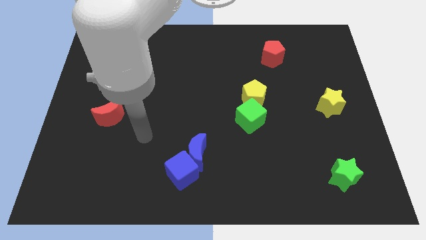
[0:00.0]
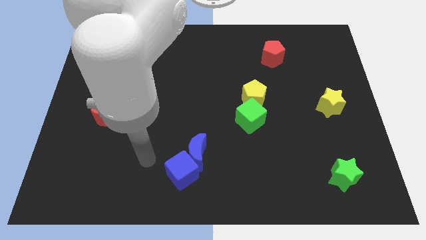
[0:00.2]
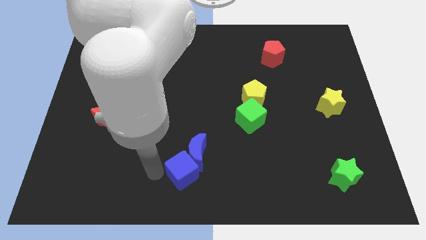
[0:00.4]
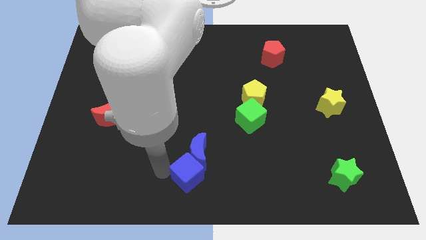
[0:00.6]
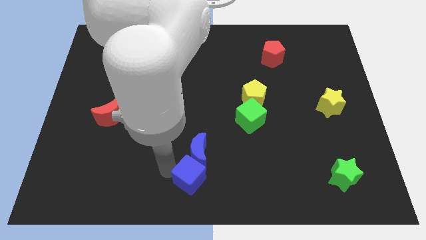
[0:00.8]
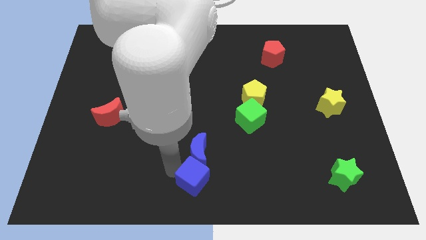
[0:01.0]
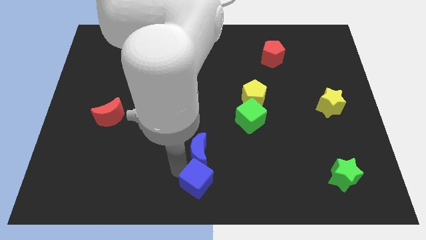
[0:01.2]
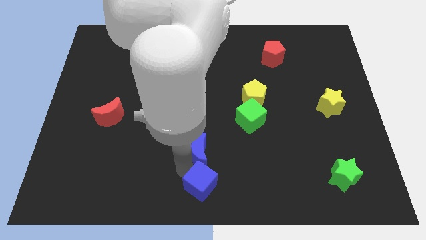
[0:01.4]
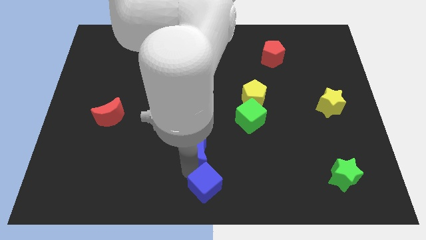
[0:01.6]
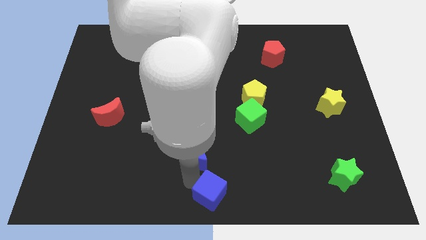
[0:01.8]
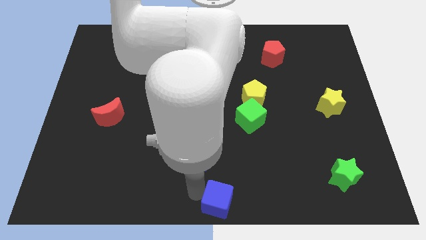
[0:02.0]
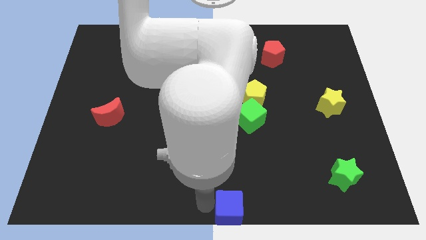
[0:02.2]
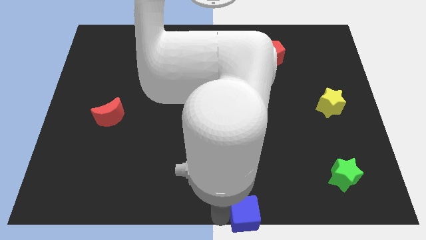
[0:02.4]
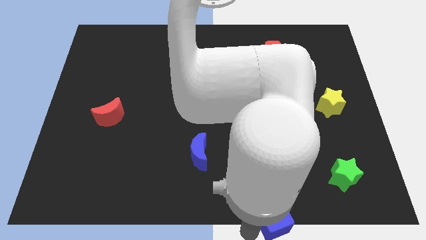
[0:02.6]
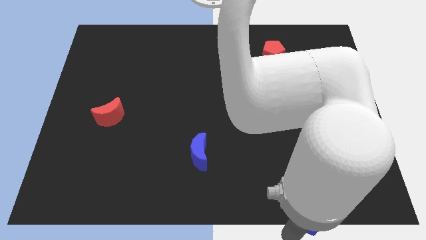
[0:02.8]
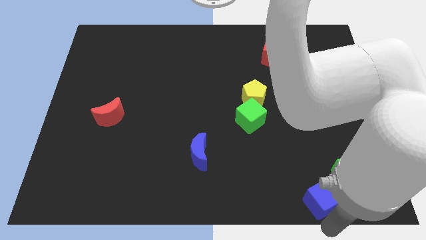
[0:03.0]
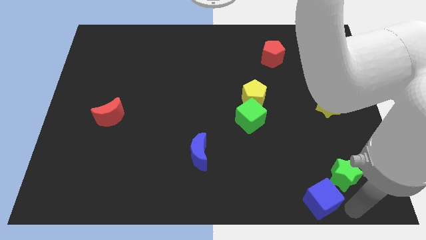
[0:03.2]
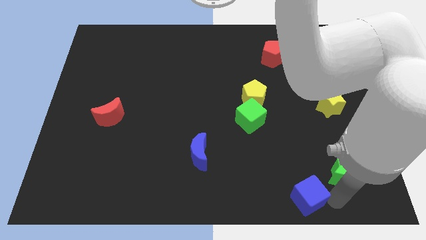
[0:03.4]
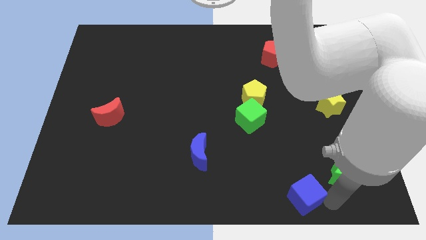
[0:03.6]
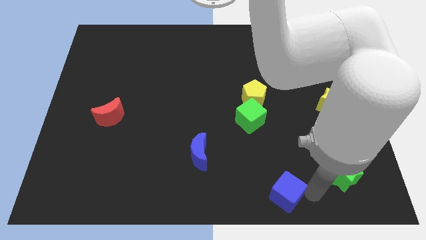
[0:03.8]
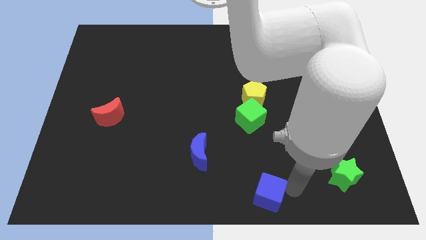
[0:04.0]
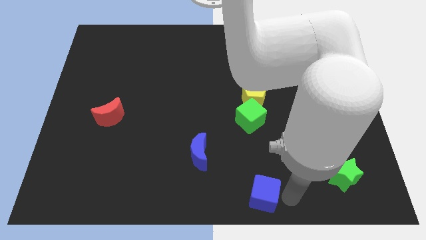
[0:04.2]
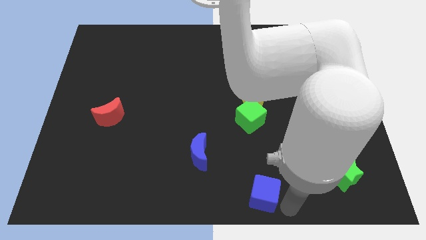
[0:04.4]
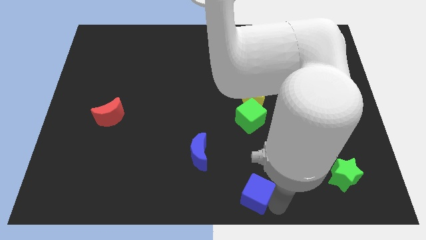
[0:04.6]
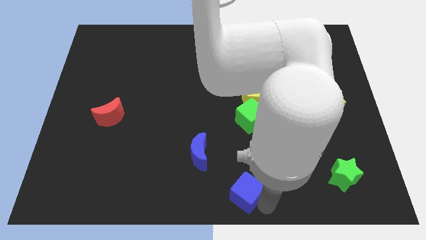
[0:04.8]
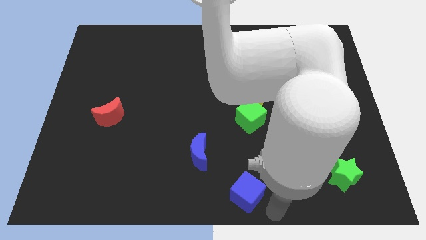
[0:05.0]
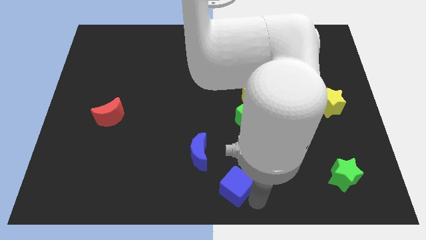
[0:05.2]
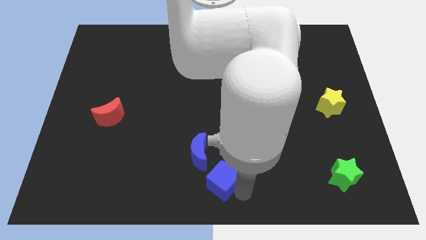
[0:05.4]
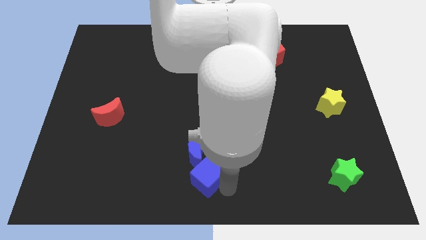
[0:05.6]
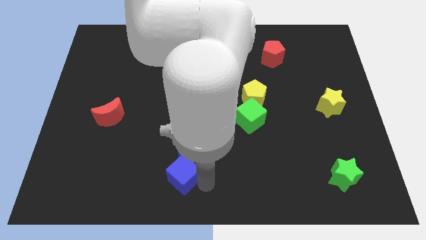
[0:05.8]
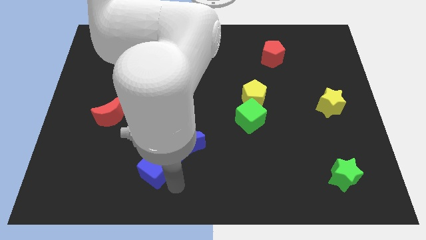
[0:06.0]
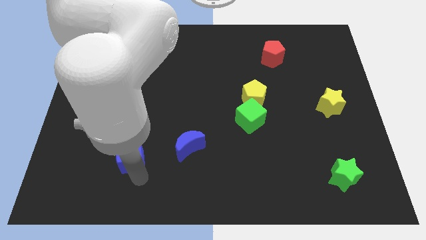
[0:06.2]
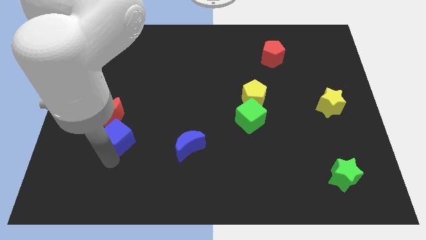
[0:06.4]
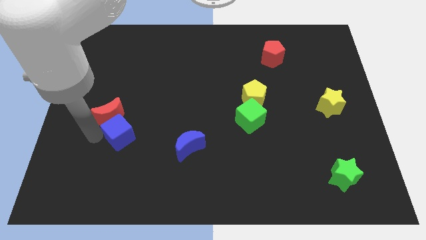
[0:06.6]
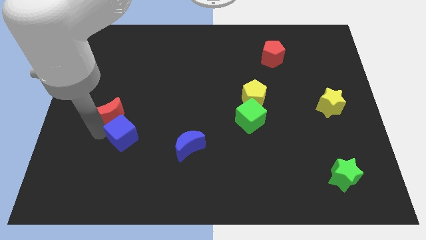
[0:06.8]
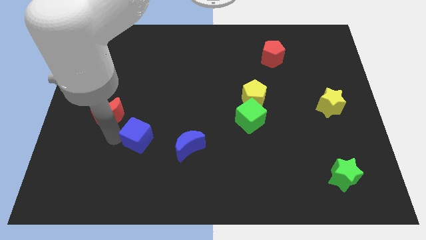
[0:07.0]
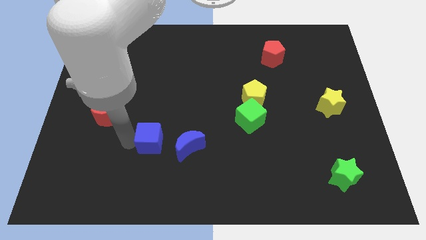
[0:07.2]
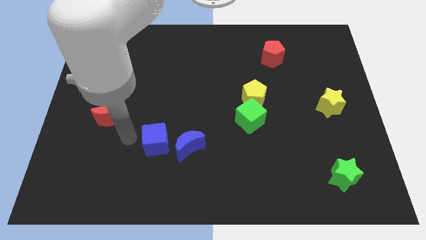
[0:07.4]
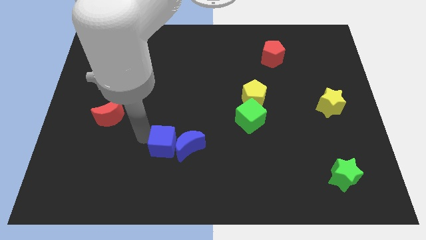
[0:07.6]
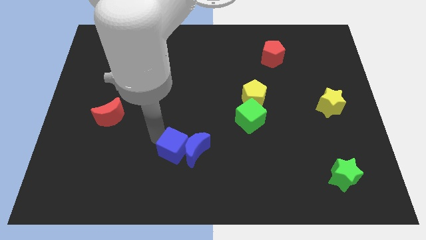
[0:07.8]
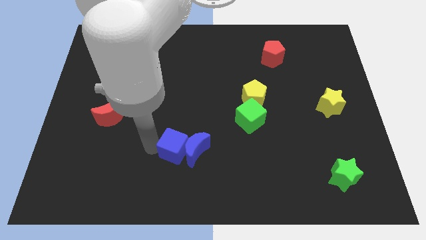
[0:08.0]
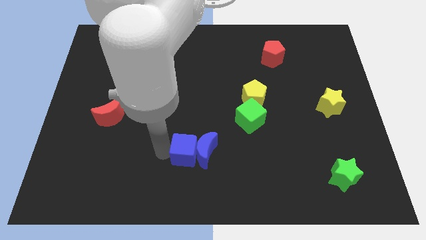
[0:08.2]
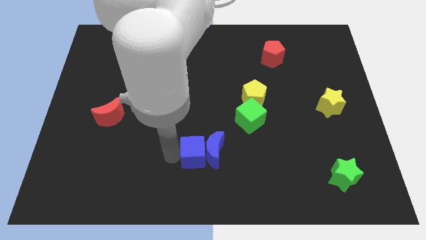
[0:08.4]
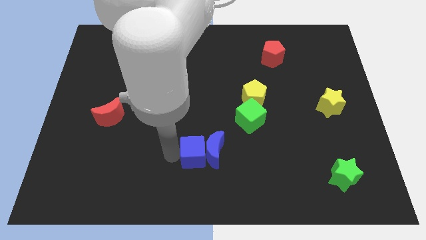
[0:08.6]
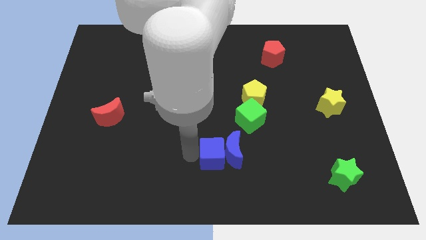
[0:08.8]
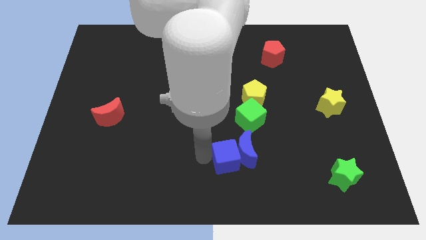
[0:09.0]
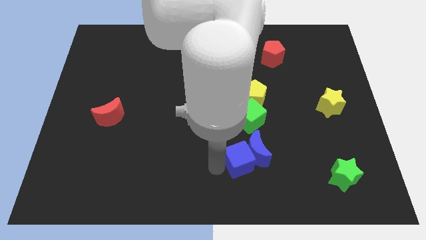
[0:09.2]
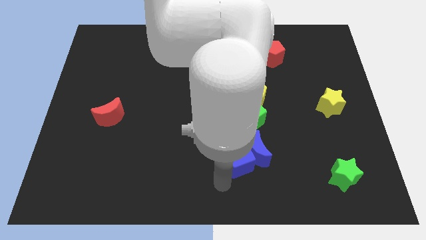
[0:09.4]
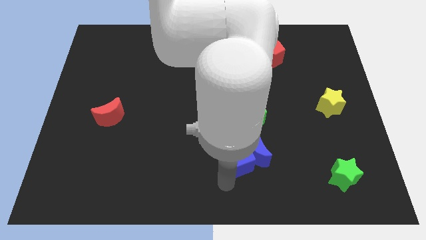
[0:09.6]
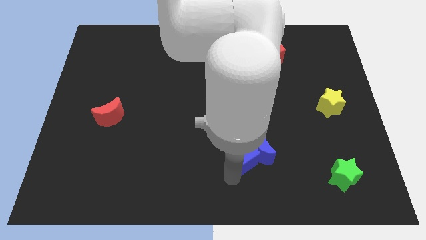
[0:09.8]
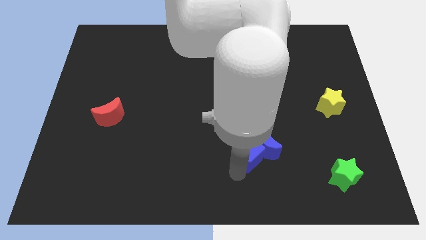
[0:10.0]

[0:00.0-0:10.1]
slide the blue cube below the yellow pentagon

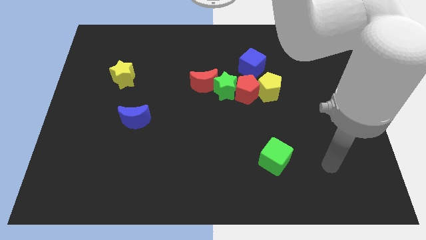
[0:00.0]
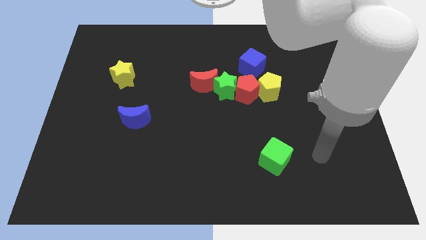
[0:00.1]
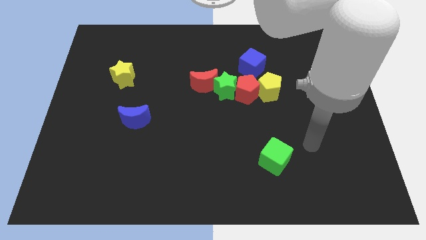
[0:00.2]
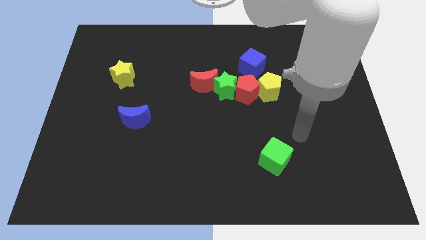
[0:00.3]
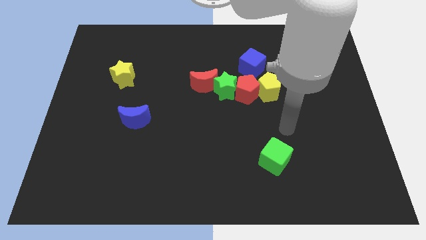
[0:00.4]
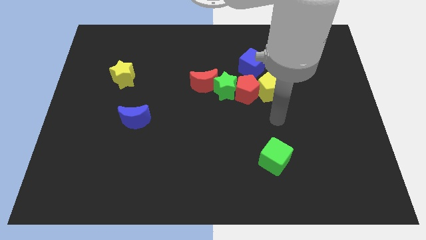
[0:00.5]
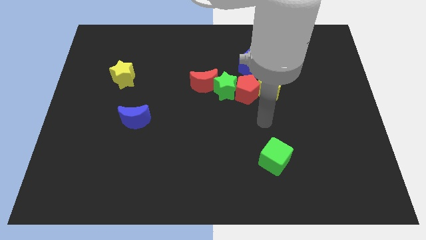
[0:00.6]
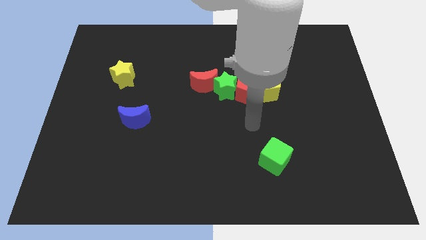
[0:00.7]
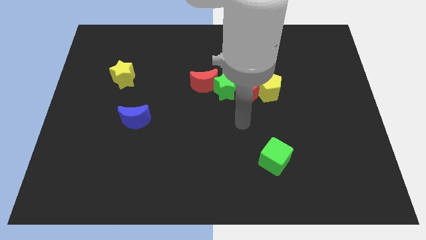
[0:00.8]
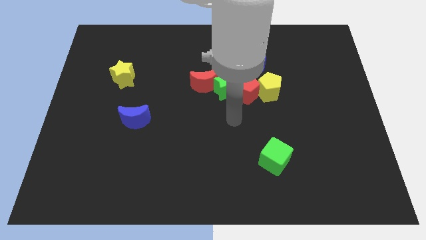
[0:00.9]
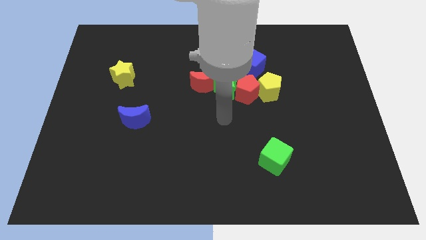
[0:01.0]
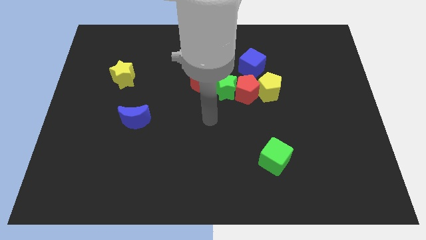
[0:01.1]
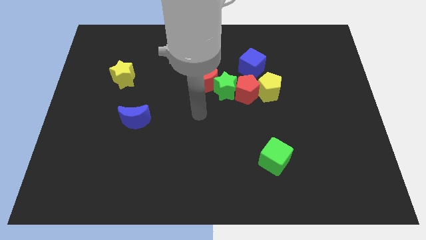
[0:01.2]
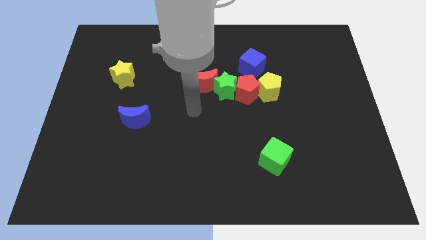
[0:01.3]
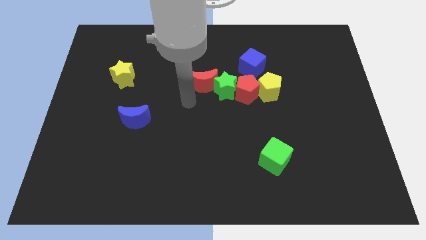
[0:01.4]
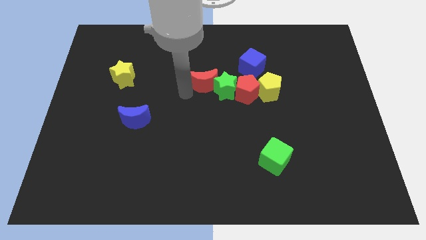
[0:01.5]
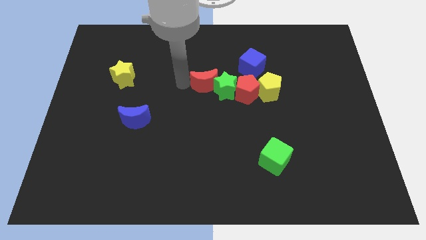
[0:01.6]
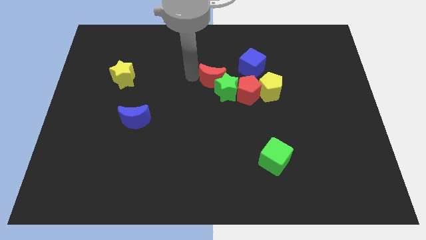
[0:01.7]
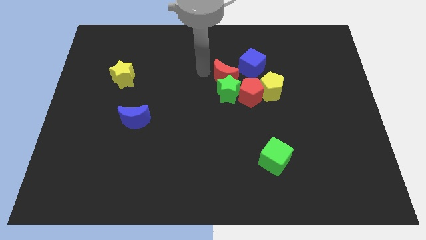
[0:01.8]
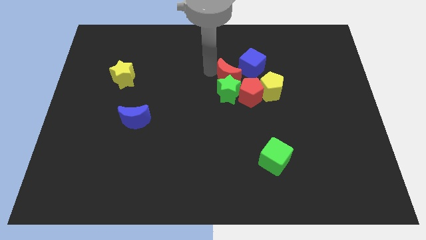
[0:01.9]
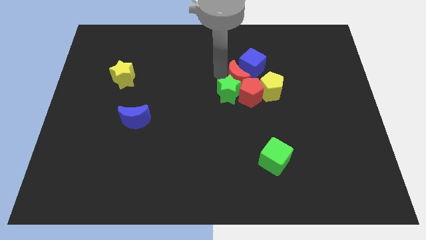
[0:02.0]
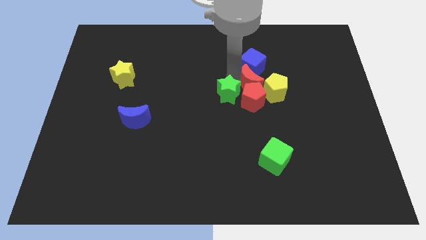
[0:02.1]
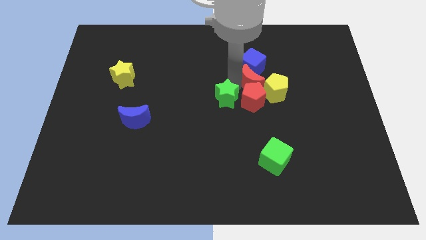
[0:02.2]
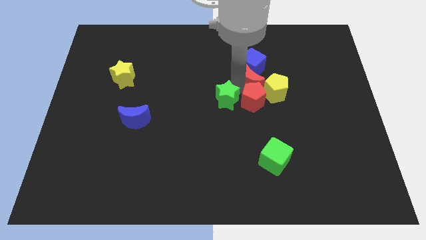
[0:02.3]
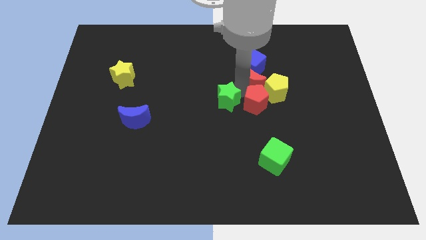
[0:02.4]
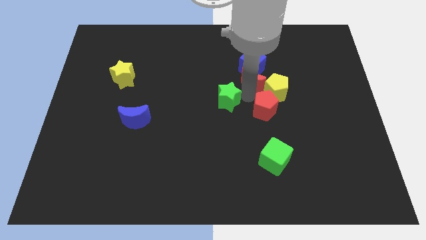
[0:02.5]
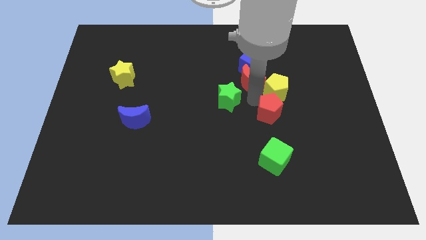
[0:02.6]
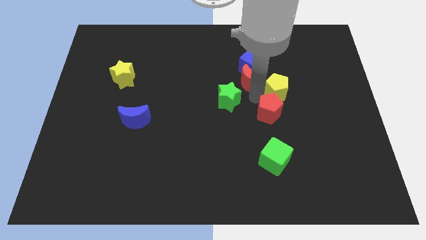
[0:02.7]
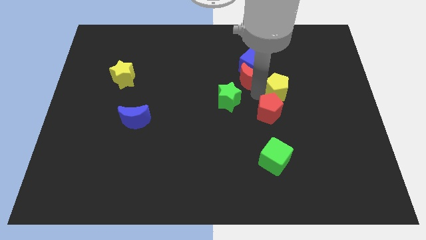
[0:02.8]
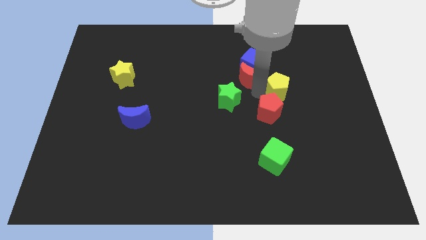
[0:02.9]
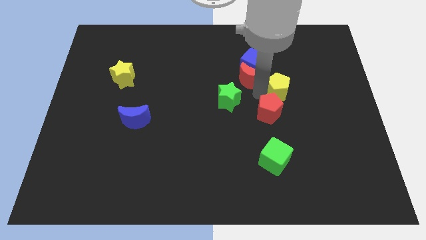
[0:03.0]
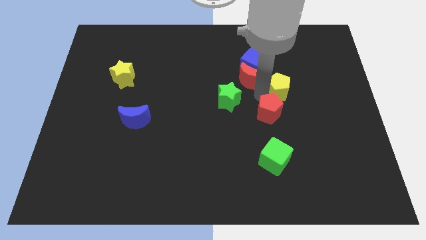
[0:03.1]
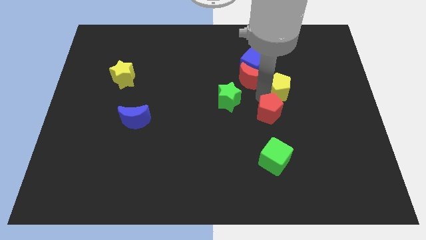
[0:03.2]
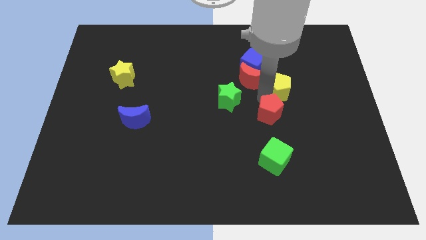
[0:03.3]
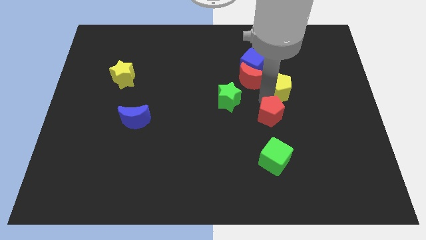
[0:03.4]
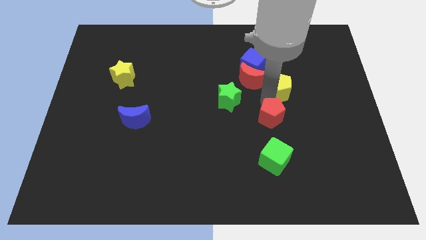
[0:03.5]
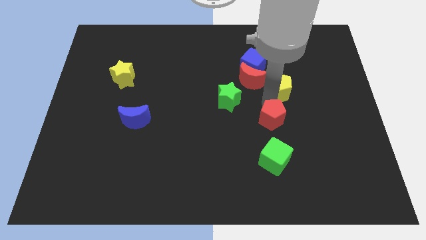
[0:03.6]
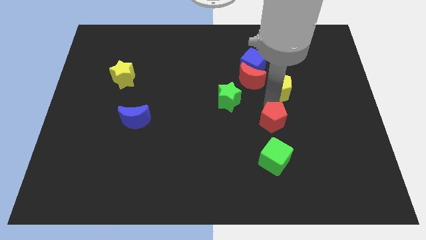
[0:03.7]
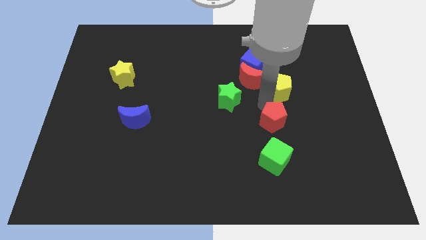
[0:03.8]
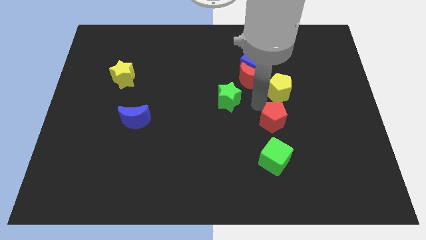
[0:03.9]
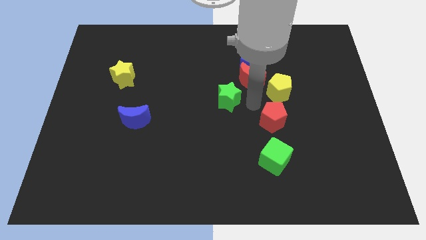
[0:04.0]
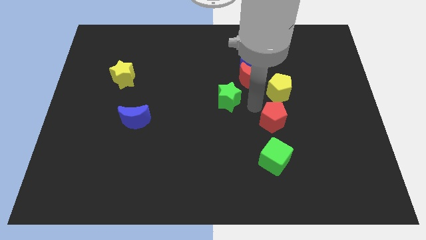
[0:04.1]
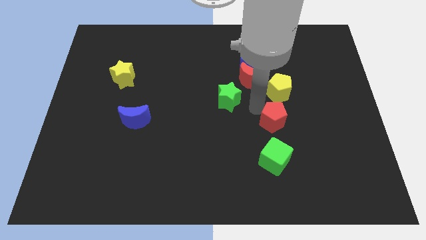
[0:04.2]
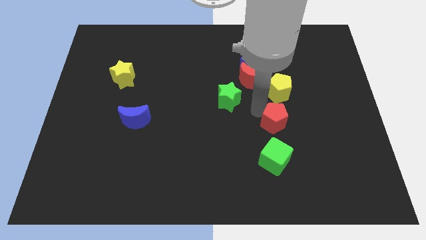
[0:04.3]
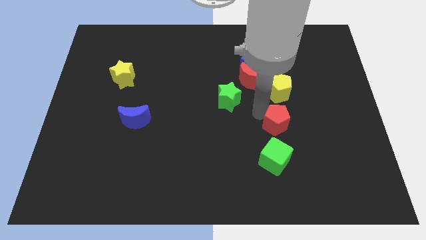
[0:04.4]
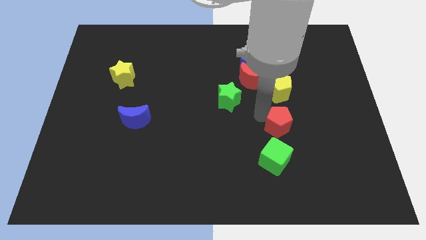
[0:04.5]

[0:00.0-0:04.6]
slide the red pentagon to the top right side of the green cube
